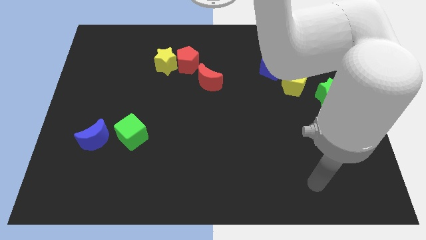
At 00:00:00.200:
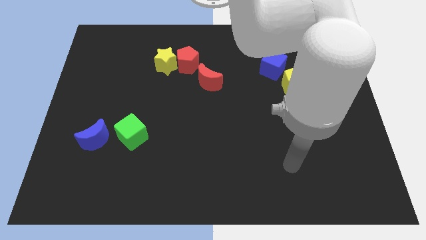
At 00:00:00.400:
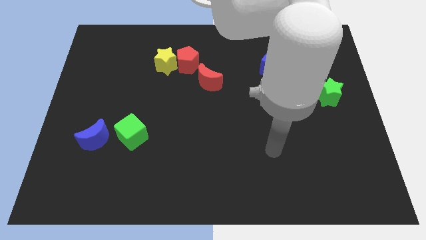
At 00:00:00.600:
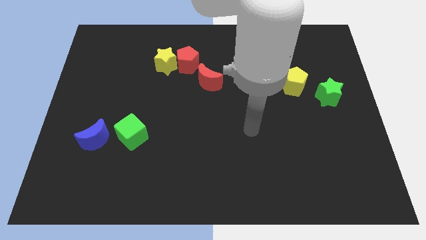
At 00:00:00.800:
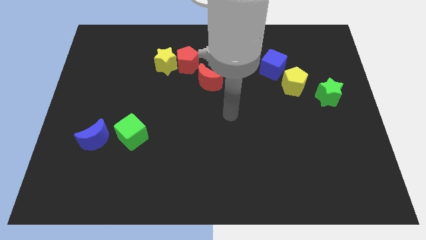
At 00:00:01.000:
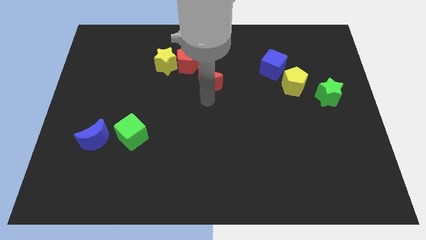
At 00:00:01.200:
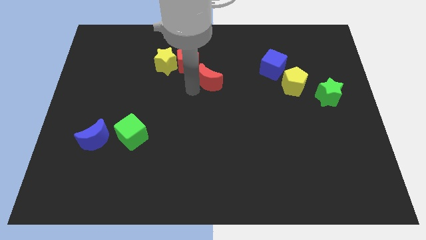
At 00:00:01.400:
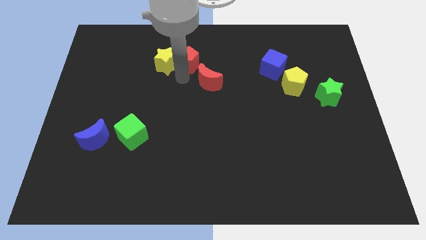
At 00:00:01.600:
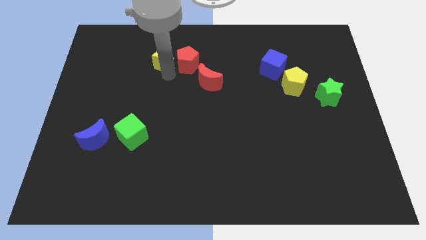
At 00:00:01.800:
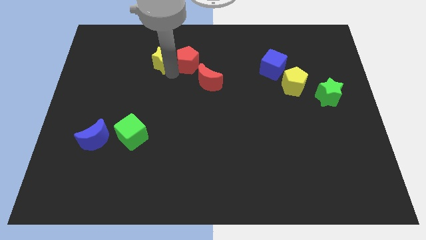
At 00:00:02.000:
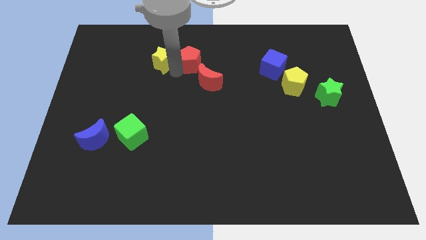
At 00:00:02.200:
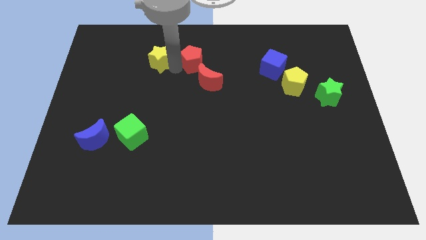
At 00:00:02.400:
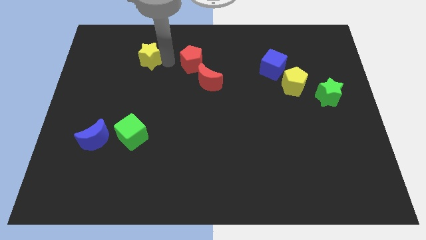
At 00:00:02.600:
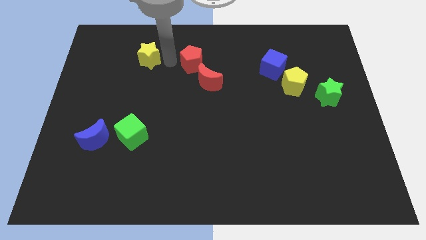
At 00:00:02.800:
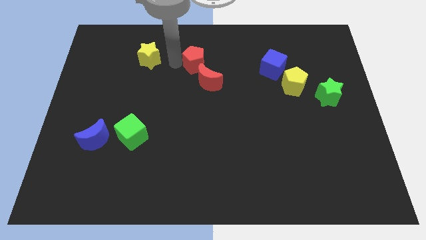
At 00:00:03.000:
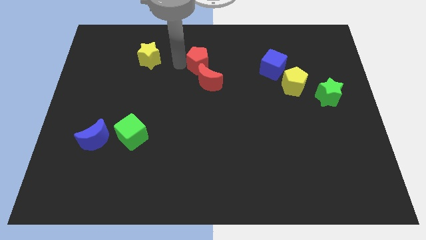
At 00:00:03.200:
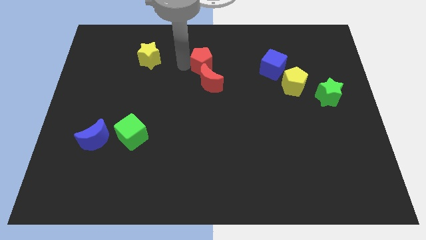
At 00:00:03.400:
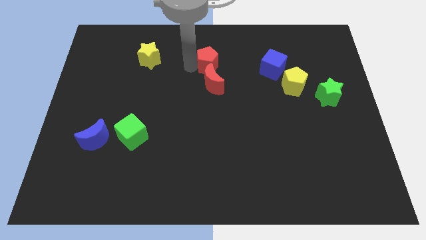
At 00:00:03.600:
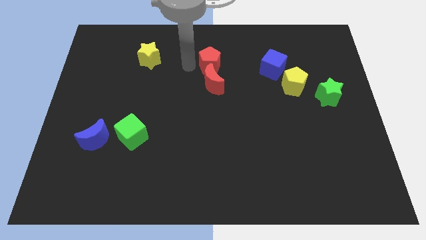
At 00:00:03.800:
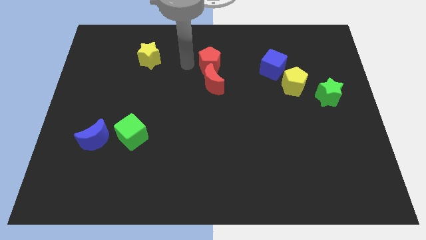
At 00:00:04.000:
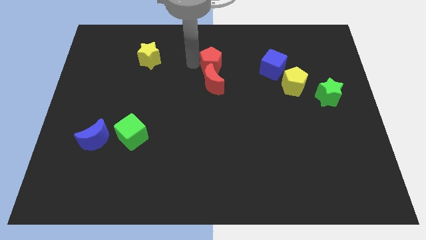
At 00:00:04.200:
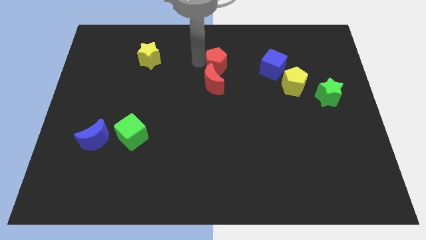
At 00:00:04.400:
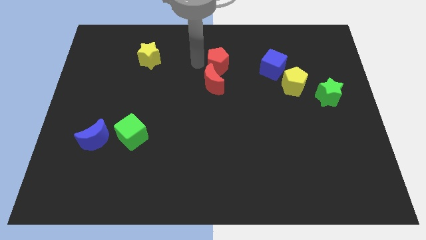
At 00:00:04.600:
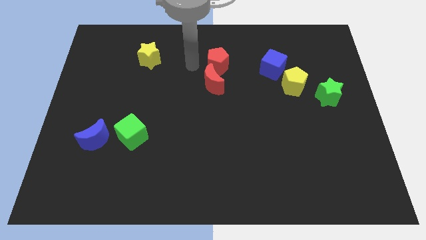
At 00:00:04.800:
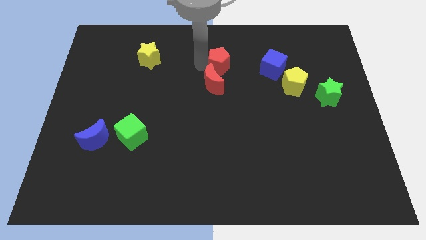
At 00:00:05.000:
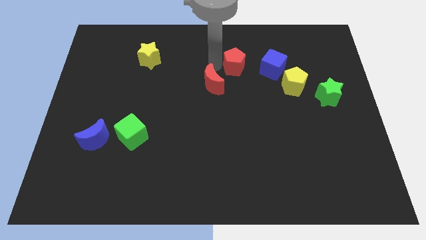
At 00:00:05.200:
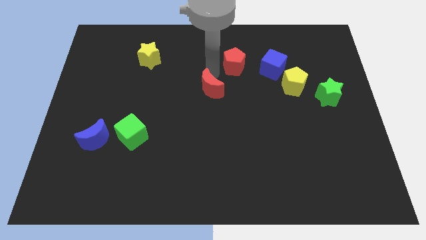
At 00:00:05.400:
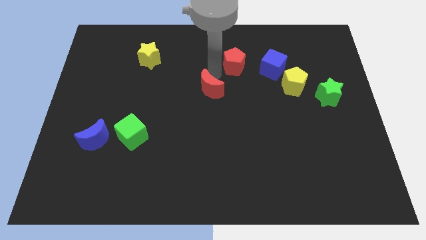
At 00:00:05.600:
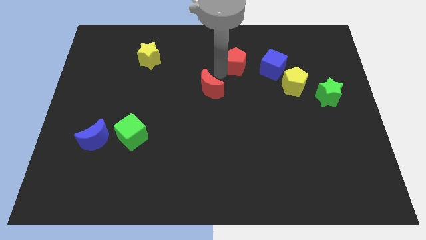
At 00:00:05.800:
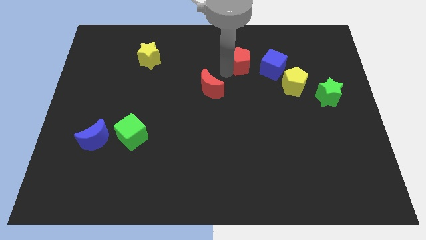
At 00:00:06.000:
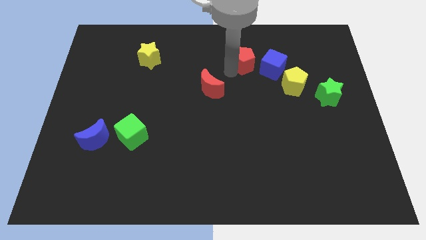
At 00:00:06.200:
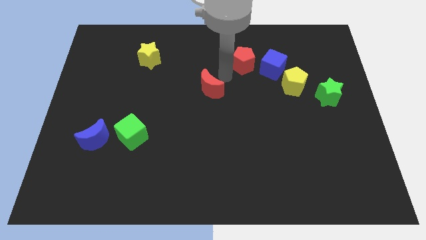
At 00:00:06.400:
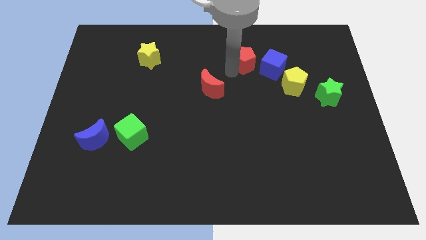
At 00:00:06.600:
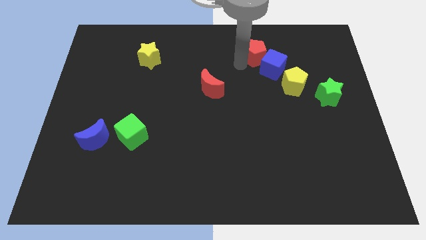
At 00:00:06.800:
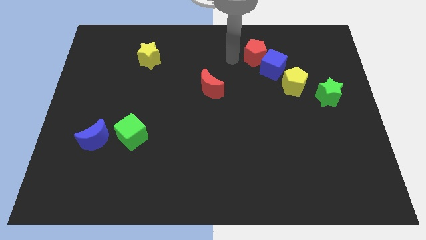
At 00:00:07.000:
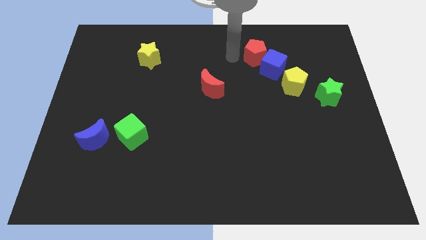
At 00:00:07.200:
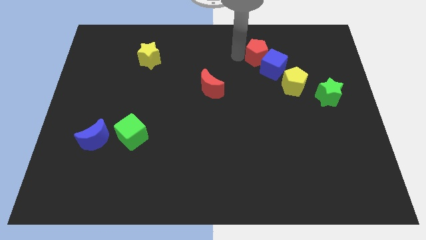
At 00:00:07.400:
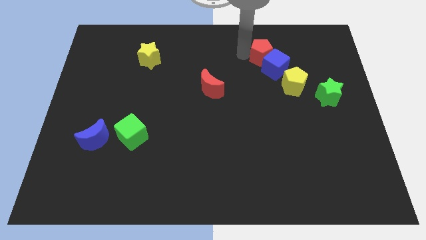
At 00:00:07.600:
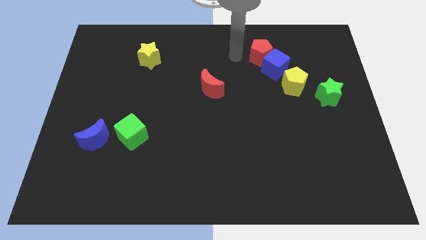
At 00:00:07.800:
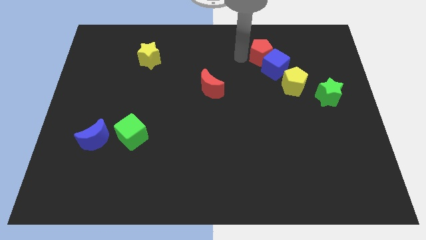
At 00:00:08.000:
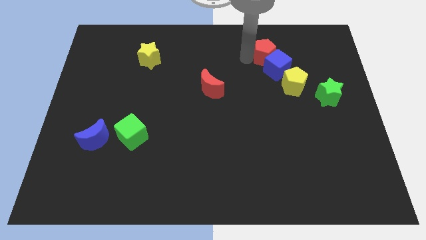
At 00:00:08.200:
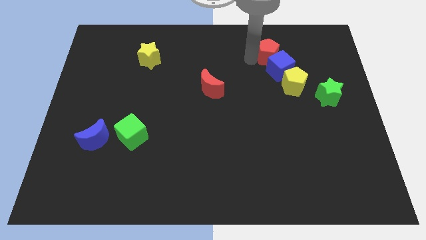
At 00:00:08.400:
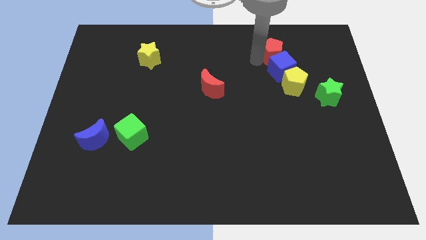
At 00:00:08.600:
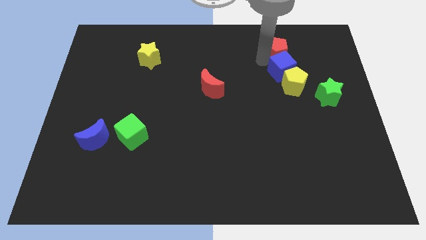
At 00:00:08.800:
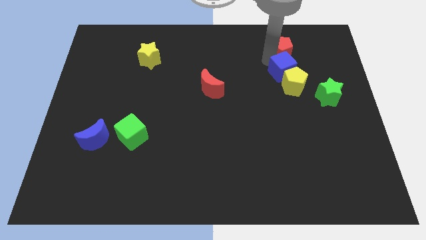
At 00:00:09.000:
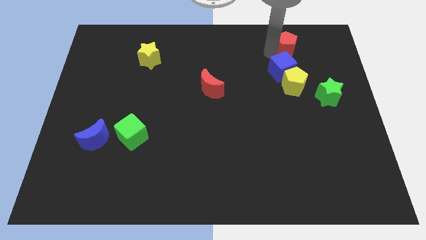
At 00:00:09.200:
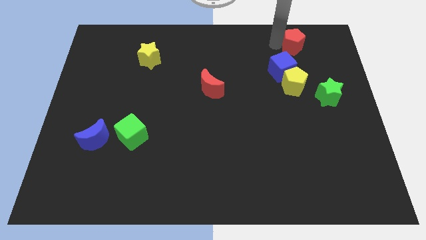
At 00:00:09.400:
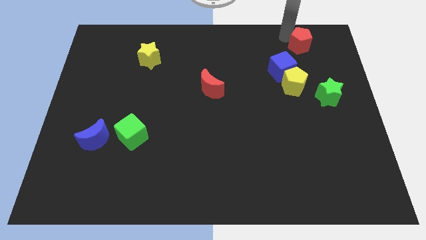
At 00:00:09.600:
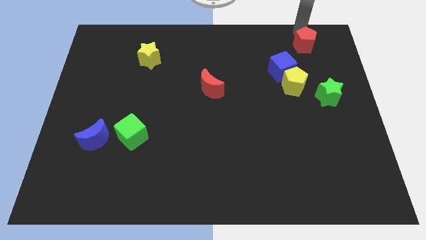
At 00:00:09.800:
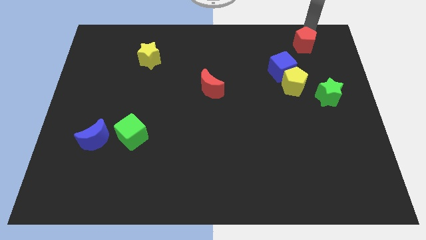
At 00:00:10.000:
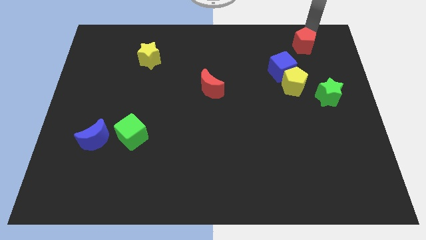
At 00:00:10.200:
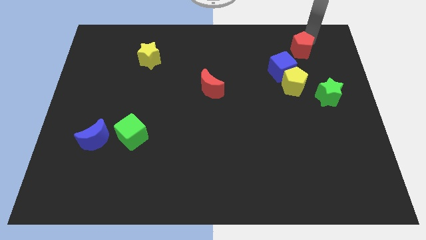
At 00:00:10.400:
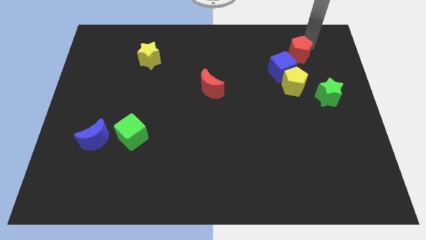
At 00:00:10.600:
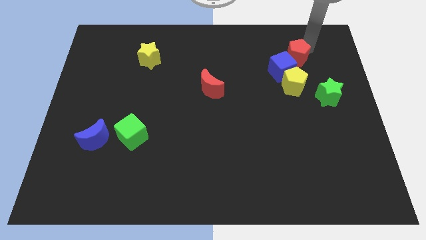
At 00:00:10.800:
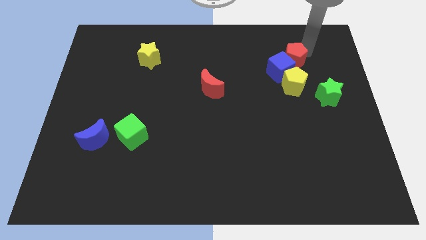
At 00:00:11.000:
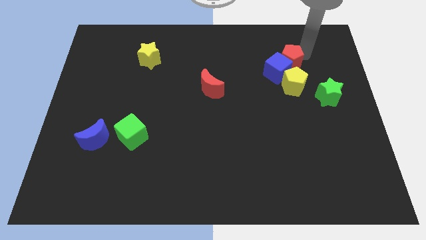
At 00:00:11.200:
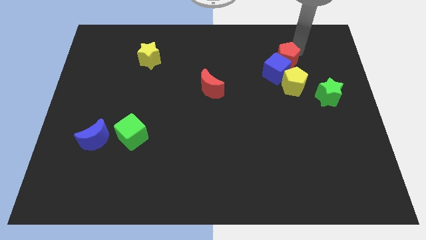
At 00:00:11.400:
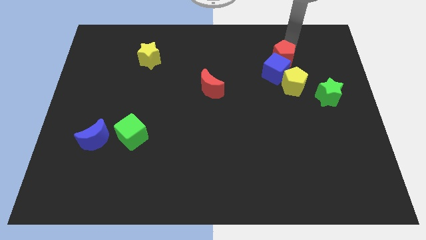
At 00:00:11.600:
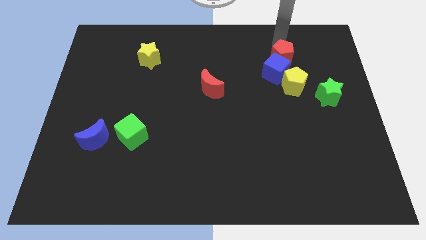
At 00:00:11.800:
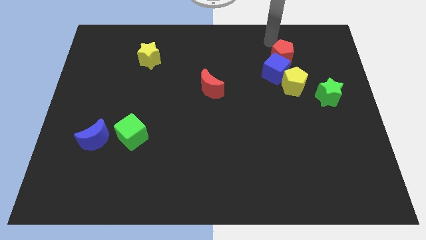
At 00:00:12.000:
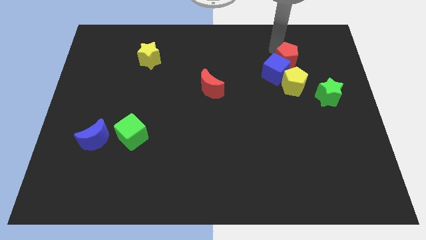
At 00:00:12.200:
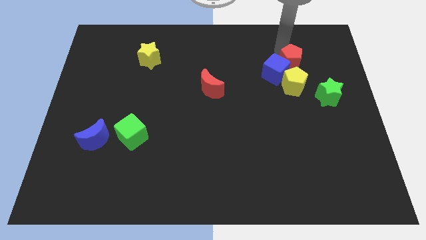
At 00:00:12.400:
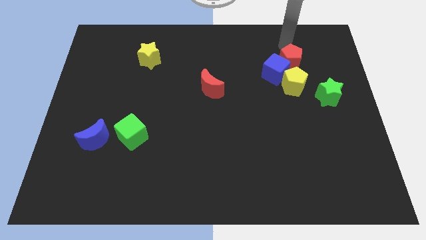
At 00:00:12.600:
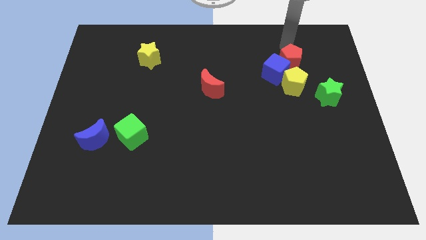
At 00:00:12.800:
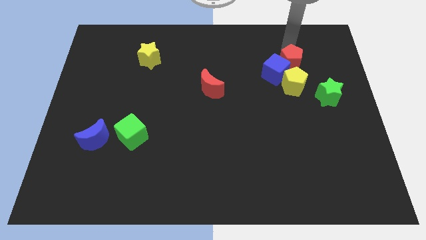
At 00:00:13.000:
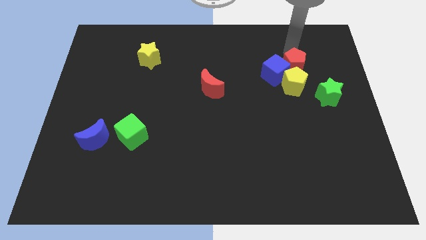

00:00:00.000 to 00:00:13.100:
push the red pentagon to the top left of the green star
